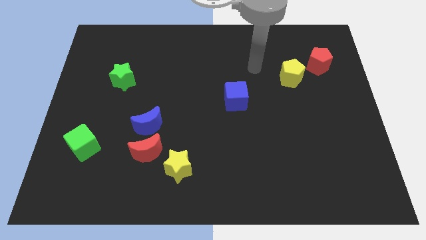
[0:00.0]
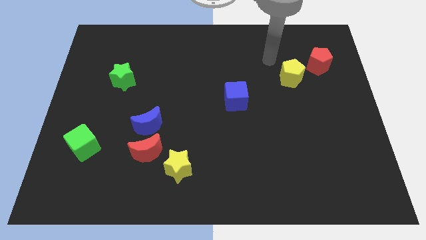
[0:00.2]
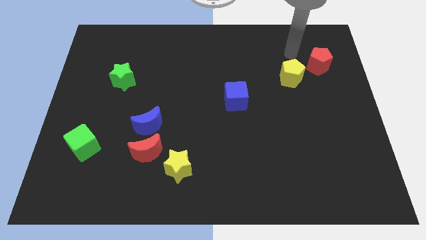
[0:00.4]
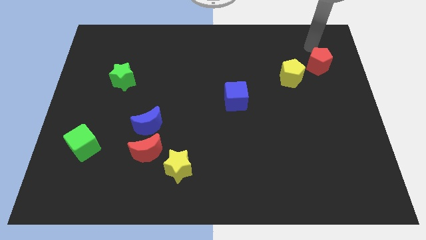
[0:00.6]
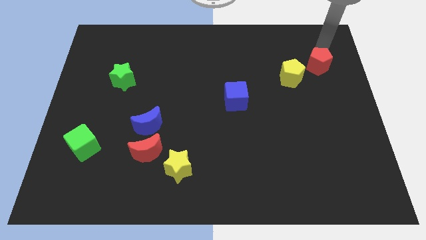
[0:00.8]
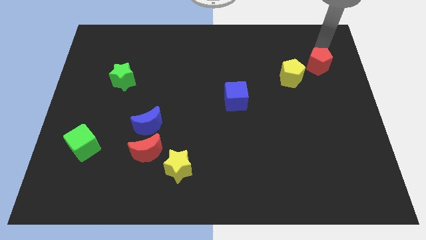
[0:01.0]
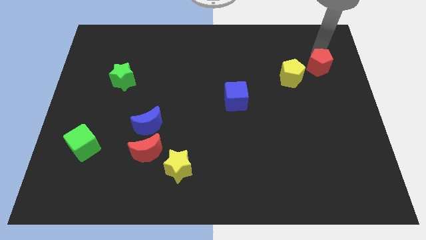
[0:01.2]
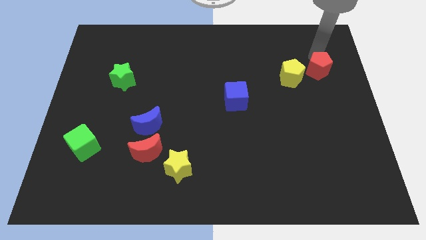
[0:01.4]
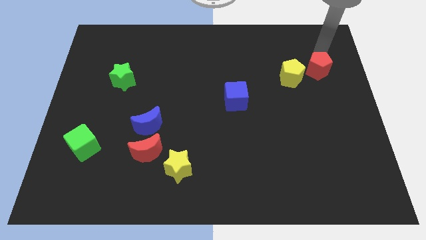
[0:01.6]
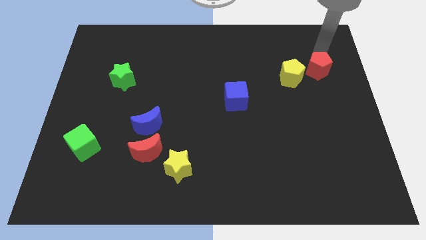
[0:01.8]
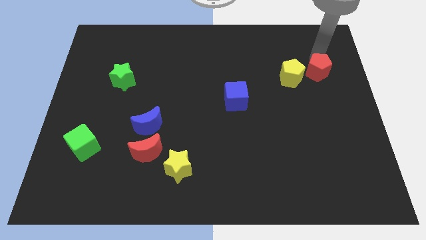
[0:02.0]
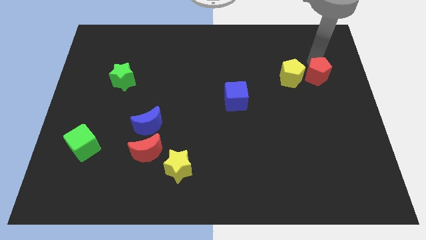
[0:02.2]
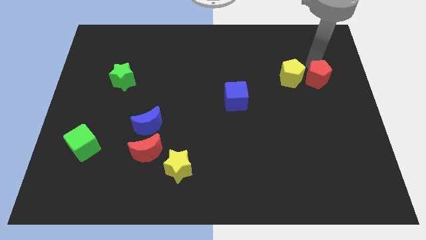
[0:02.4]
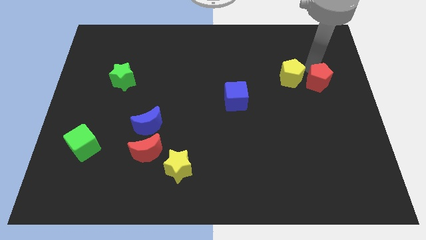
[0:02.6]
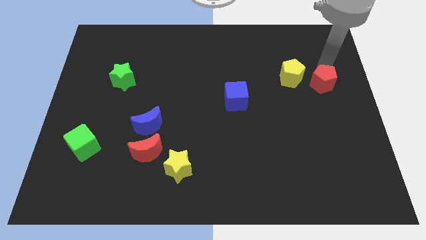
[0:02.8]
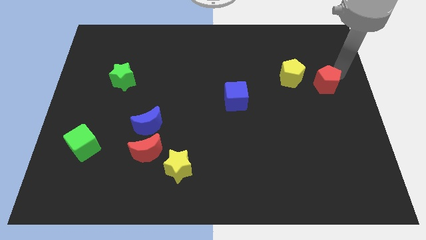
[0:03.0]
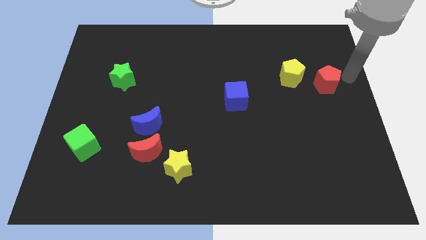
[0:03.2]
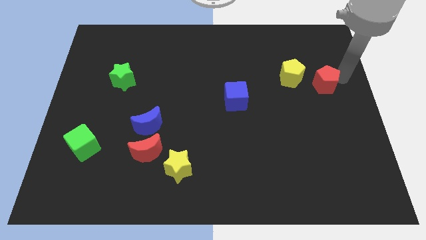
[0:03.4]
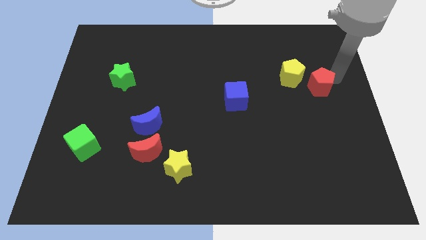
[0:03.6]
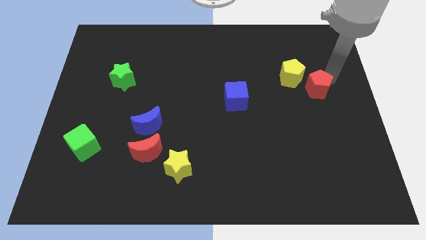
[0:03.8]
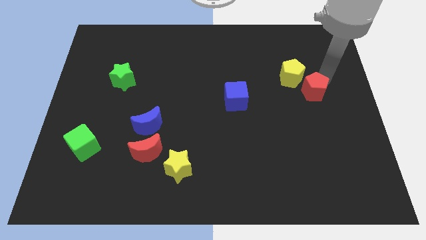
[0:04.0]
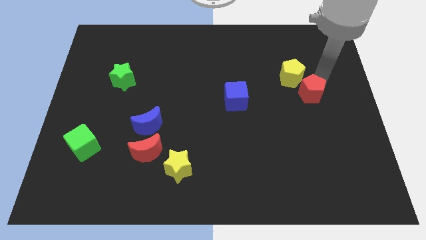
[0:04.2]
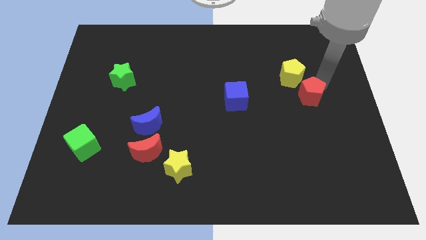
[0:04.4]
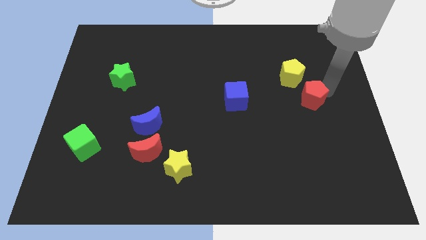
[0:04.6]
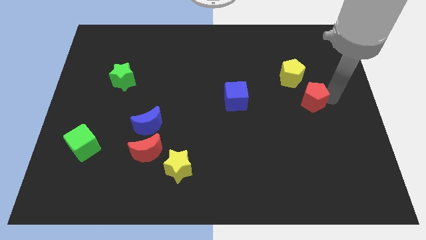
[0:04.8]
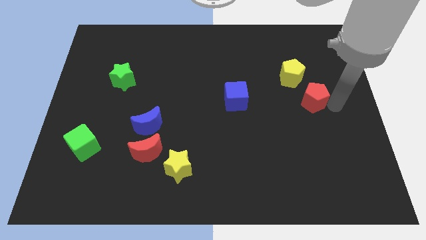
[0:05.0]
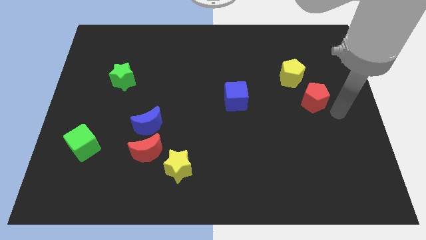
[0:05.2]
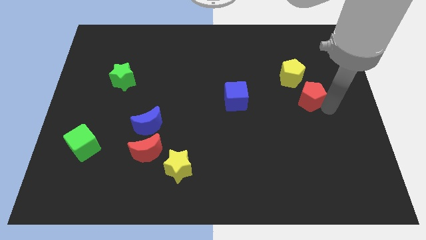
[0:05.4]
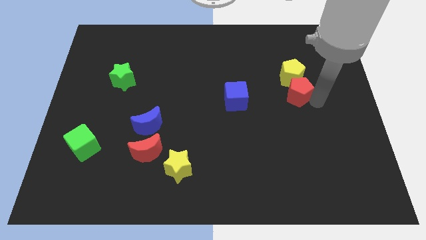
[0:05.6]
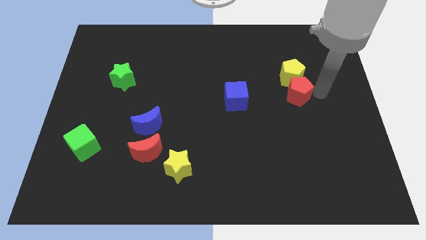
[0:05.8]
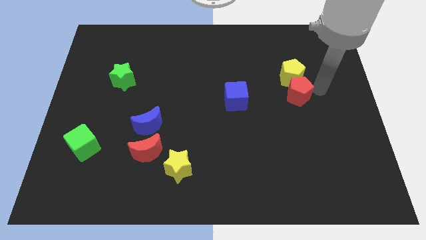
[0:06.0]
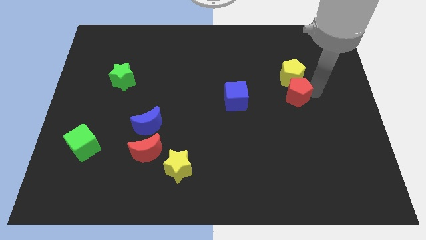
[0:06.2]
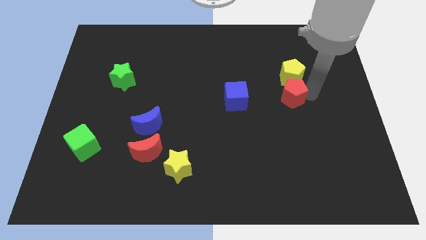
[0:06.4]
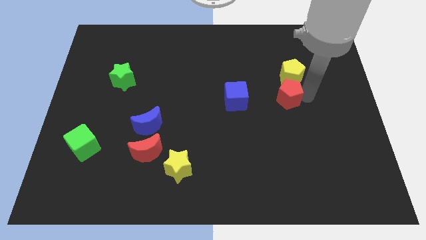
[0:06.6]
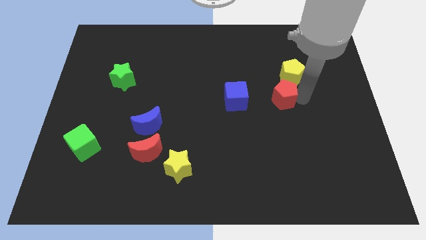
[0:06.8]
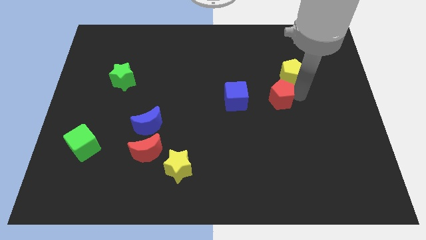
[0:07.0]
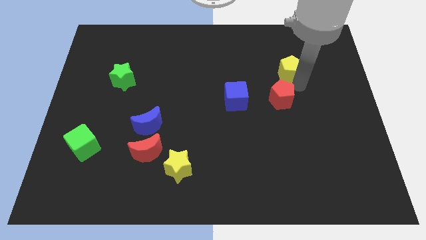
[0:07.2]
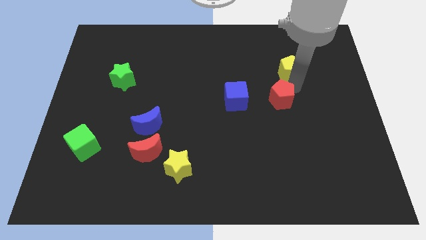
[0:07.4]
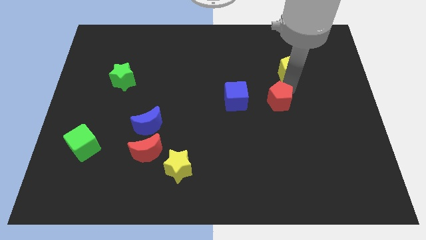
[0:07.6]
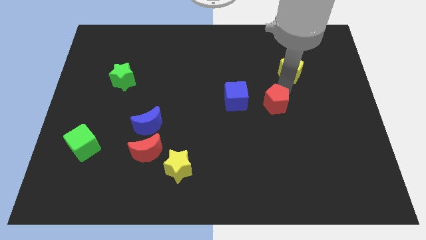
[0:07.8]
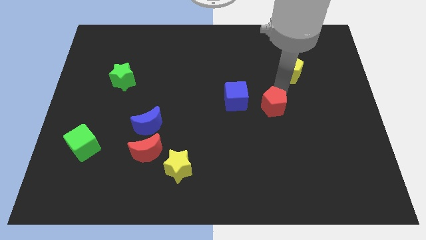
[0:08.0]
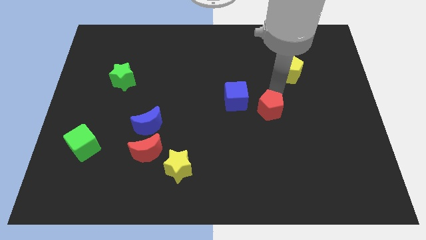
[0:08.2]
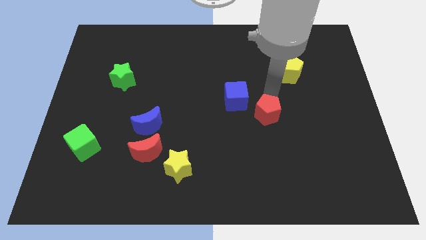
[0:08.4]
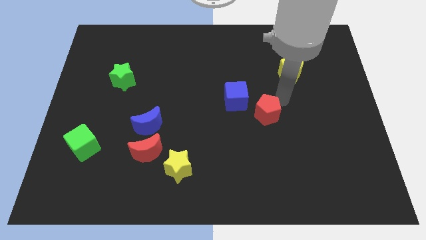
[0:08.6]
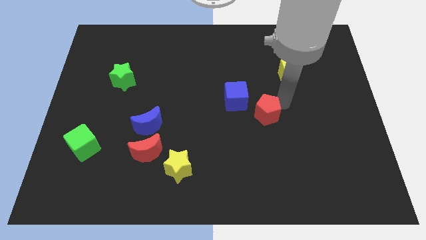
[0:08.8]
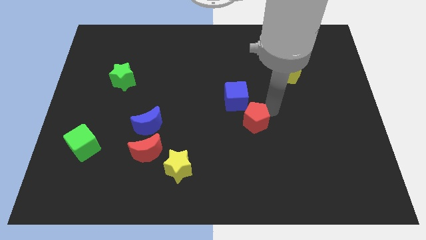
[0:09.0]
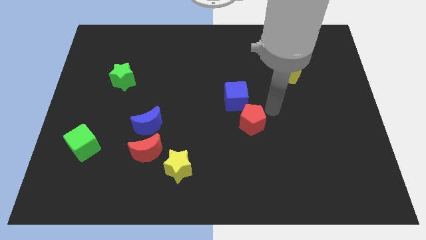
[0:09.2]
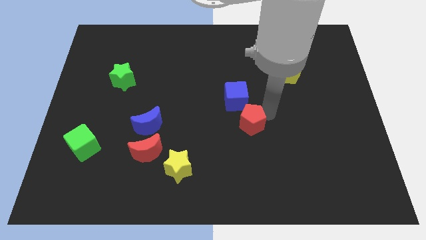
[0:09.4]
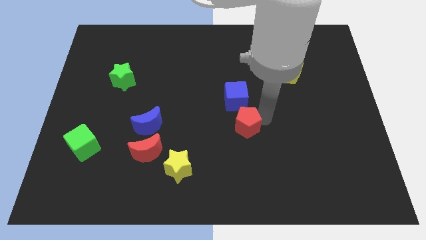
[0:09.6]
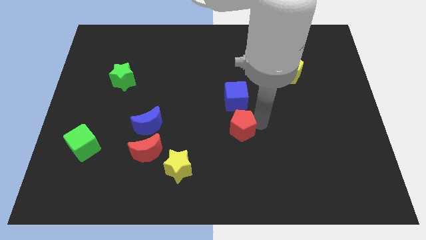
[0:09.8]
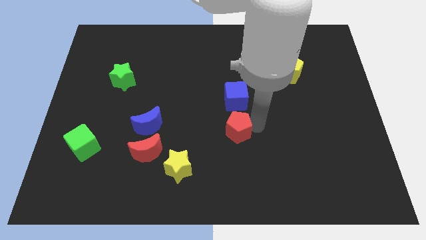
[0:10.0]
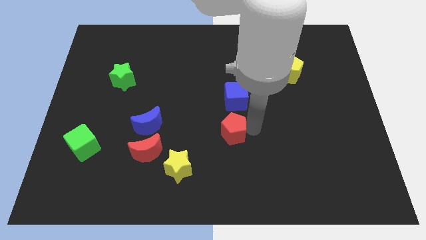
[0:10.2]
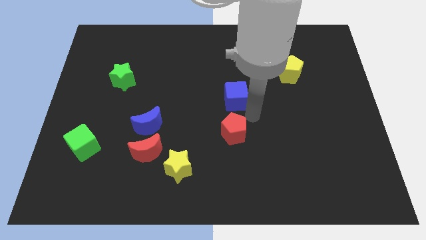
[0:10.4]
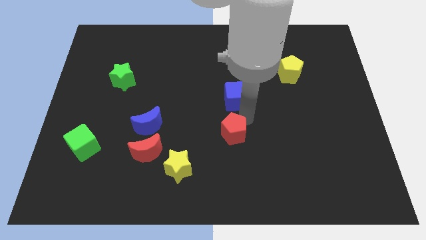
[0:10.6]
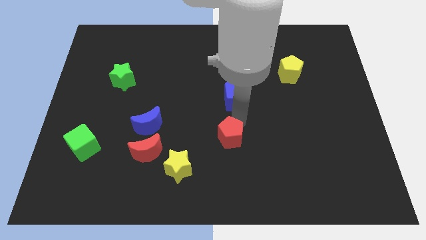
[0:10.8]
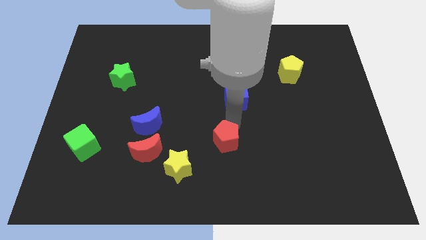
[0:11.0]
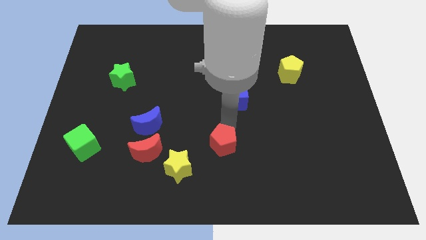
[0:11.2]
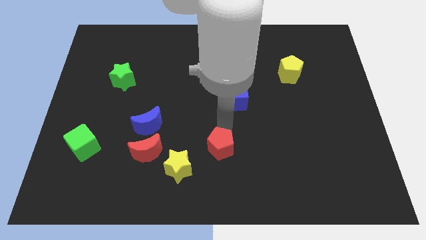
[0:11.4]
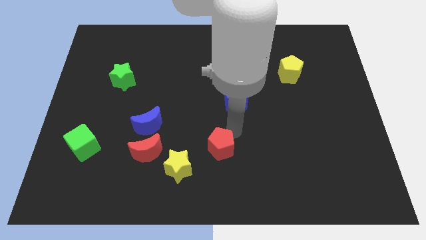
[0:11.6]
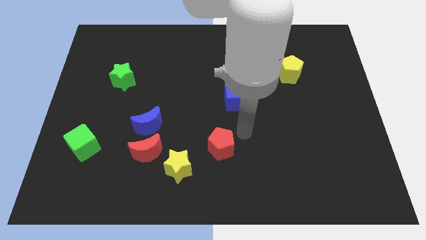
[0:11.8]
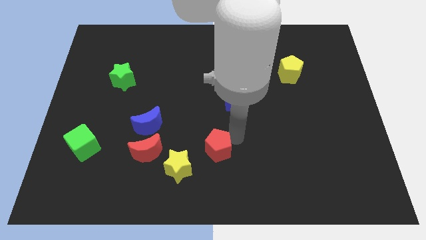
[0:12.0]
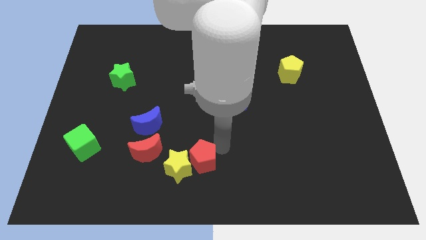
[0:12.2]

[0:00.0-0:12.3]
slide the red pentagon close to the yellow star

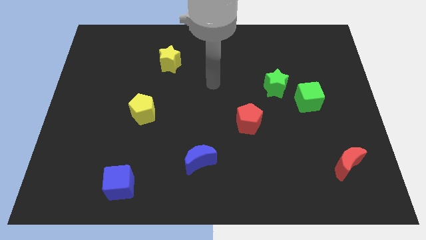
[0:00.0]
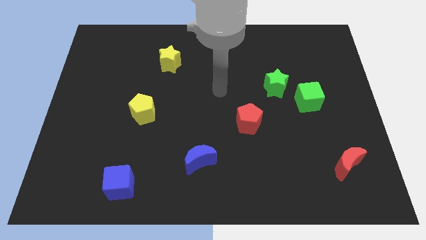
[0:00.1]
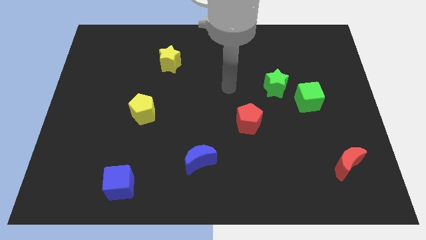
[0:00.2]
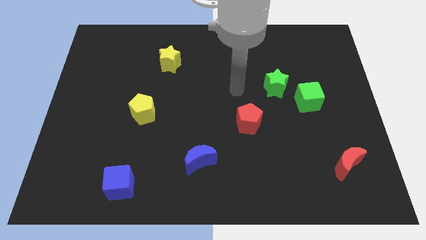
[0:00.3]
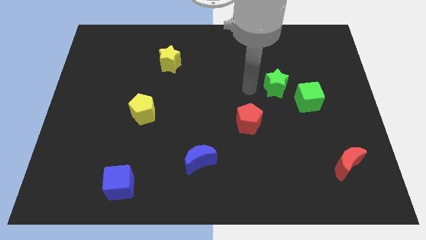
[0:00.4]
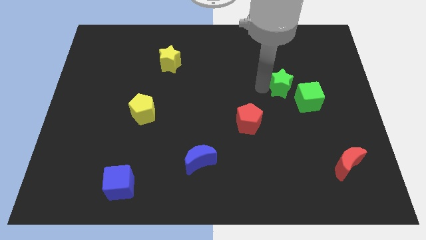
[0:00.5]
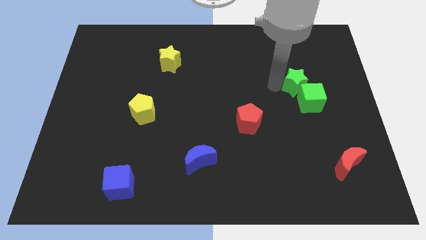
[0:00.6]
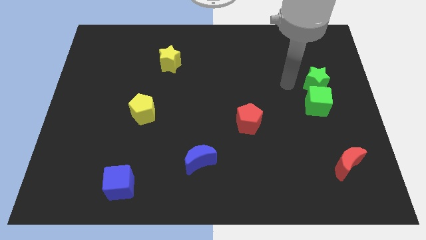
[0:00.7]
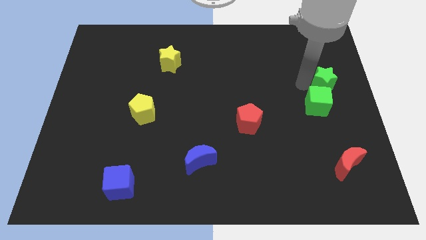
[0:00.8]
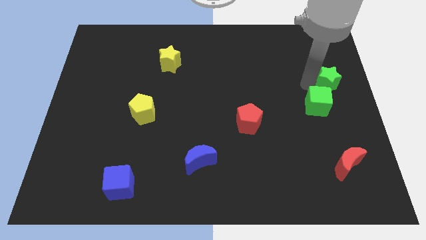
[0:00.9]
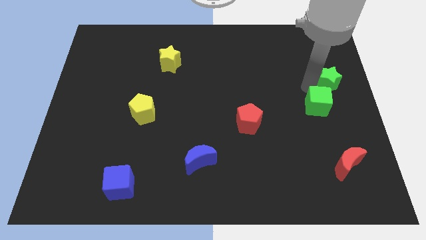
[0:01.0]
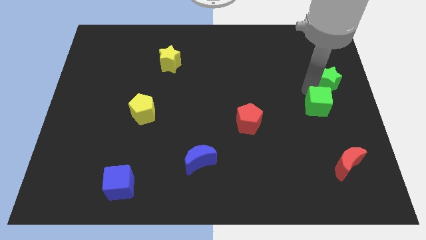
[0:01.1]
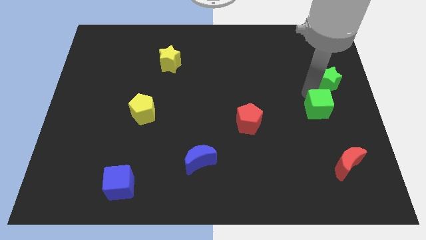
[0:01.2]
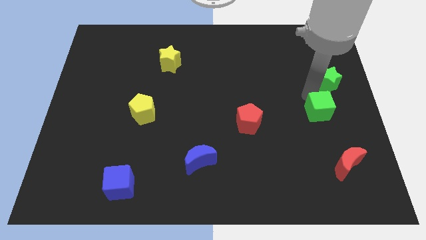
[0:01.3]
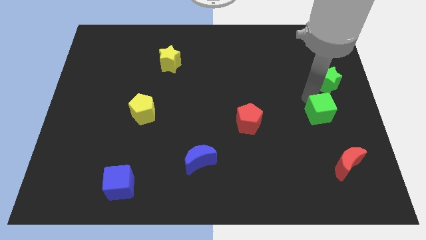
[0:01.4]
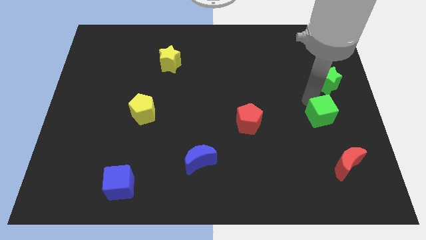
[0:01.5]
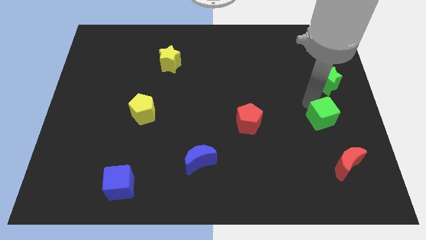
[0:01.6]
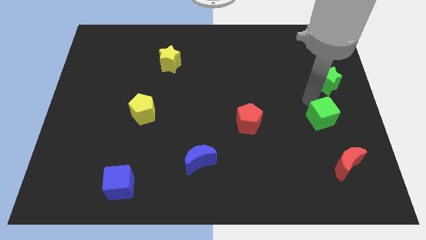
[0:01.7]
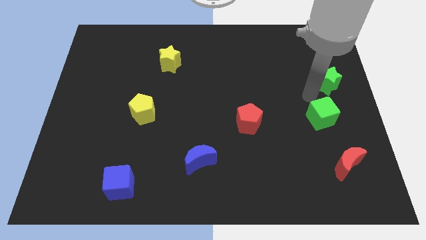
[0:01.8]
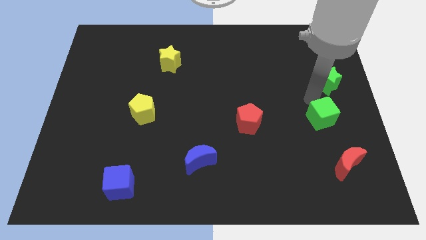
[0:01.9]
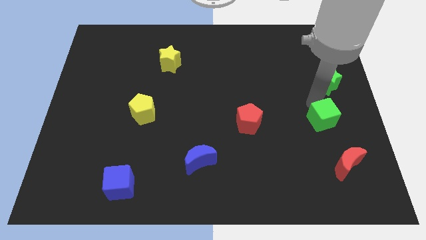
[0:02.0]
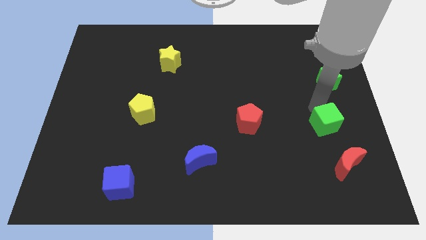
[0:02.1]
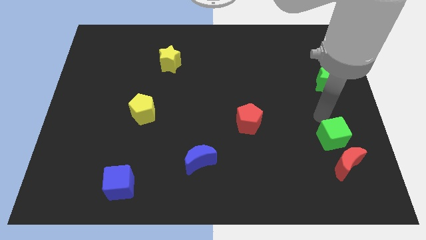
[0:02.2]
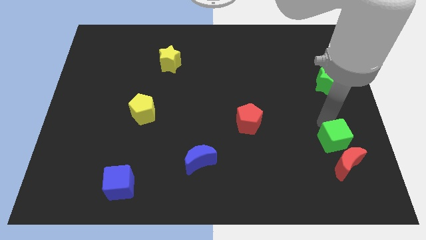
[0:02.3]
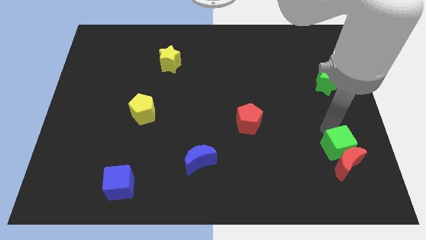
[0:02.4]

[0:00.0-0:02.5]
put the green cube close to the red moon
